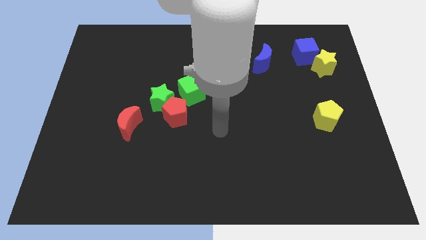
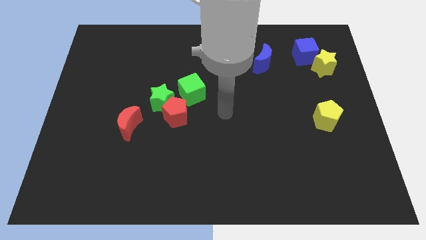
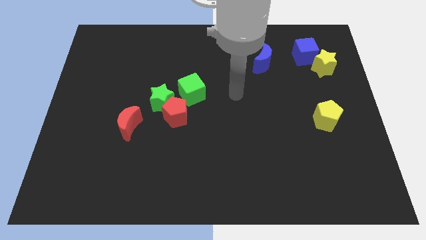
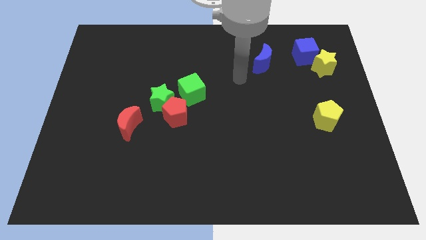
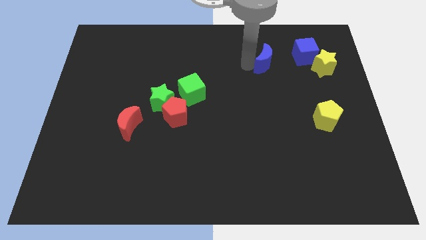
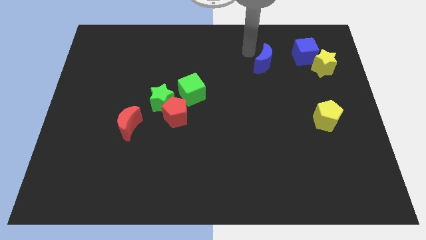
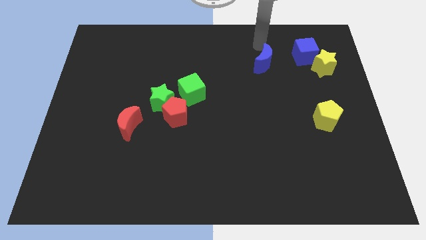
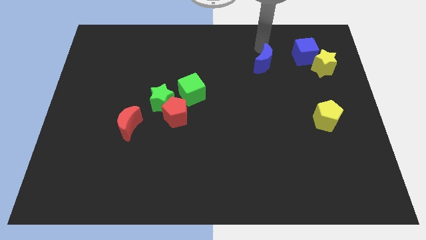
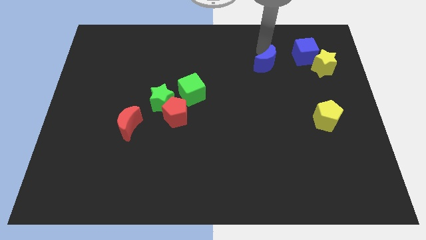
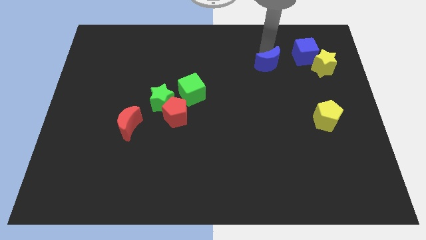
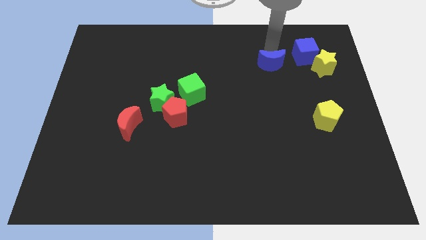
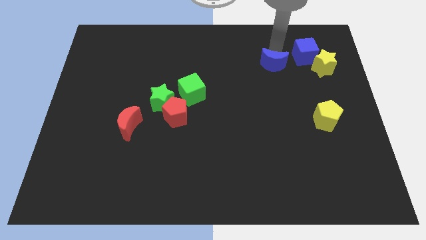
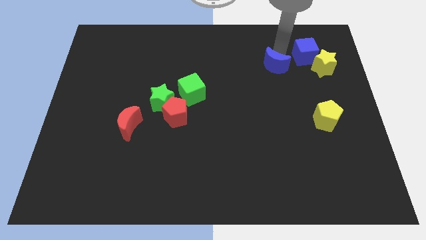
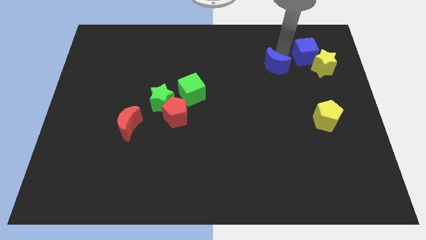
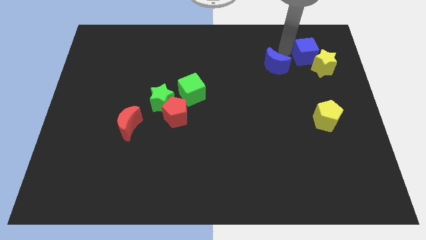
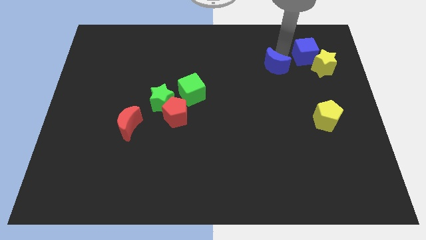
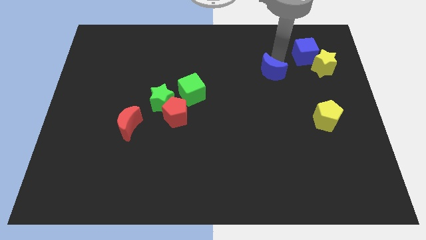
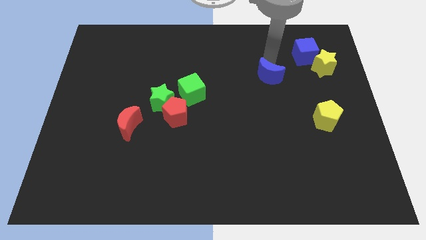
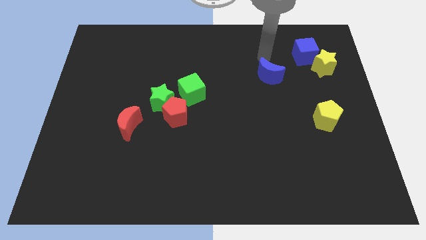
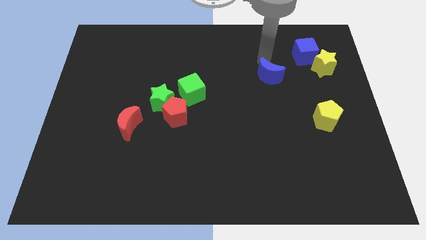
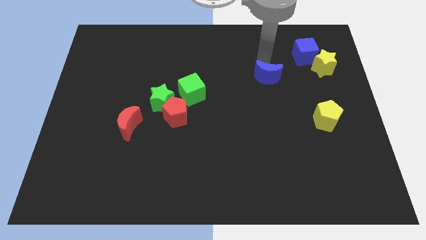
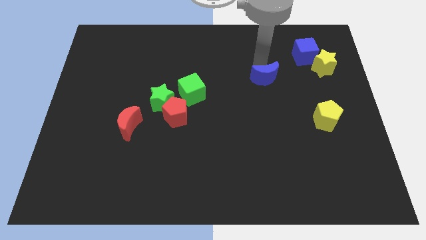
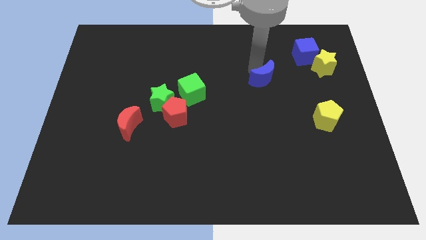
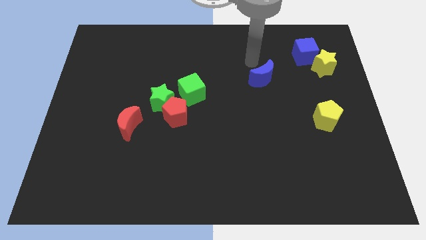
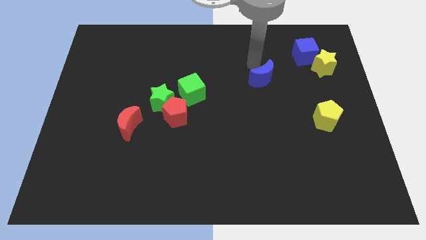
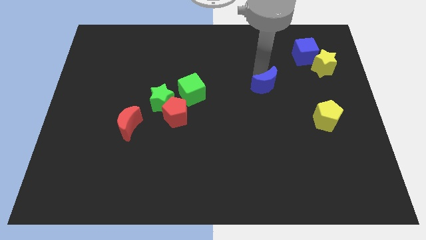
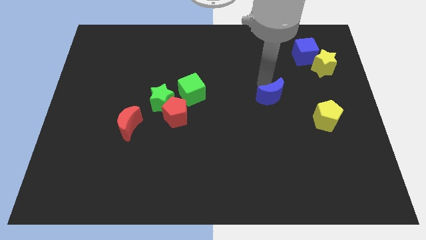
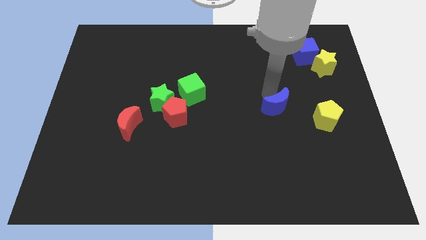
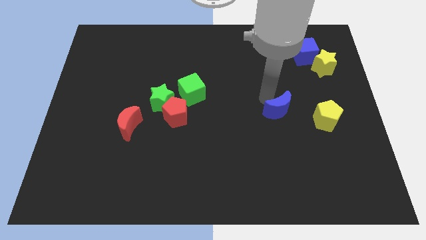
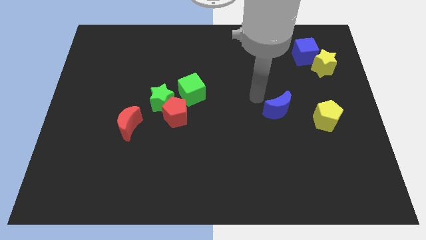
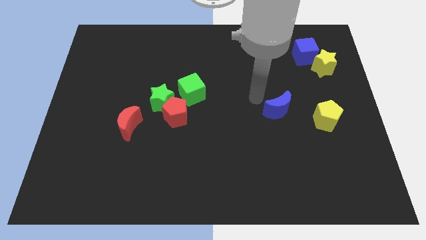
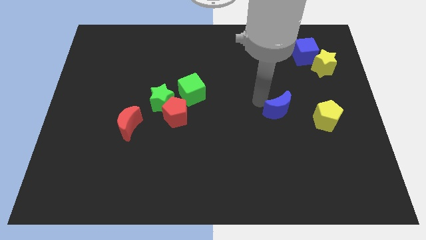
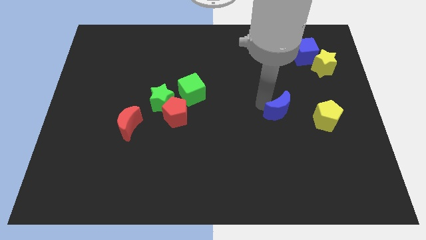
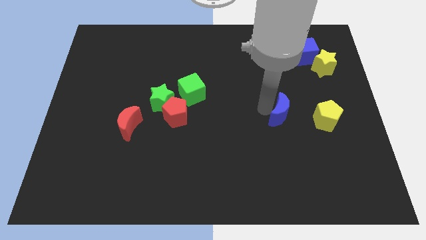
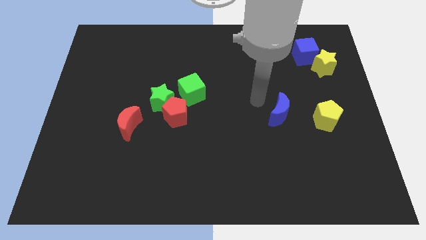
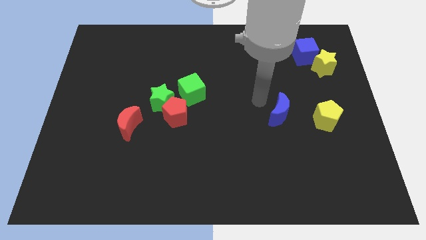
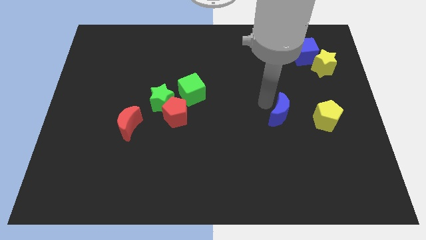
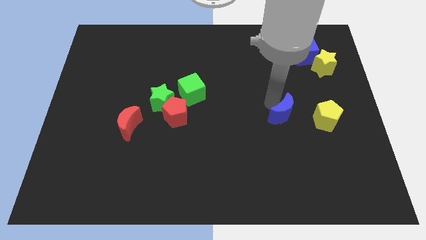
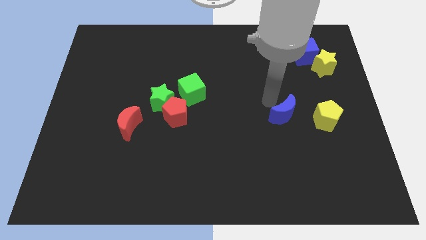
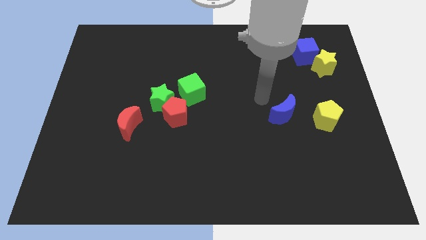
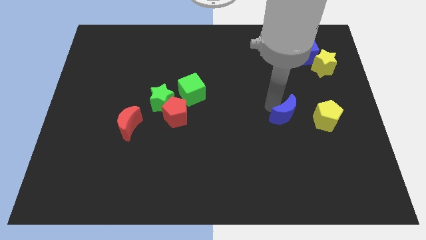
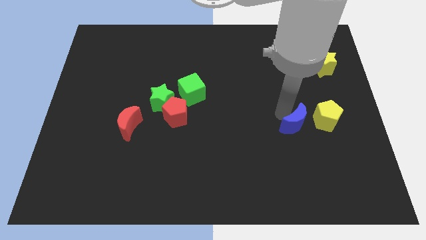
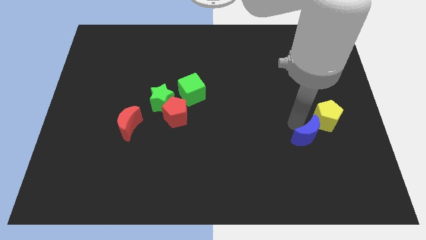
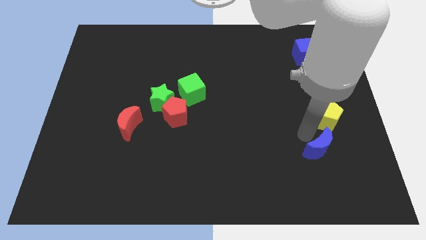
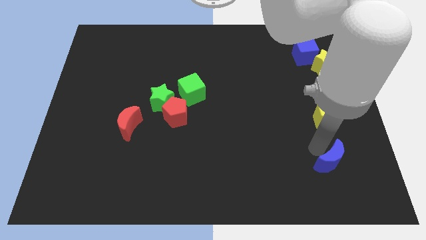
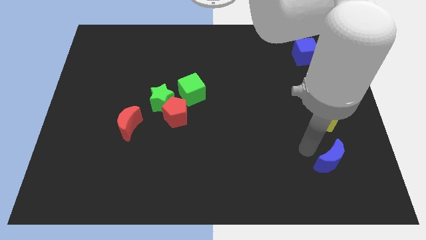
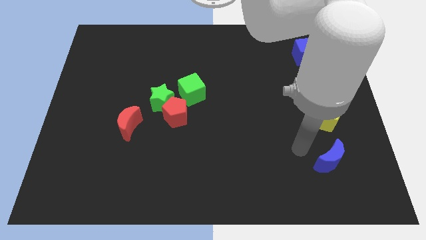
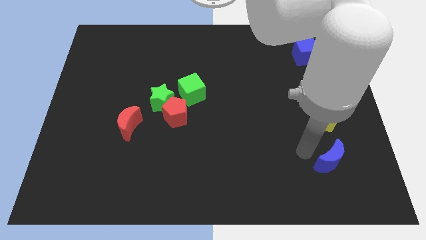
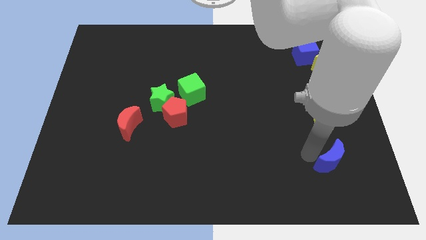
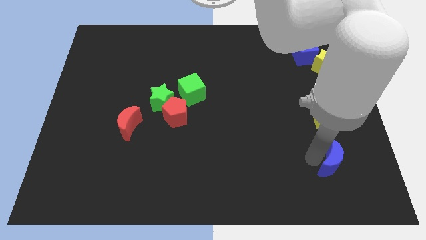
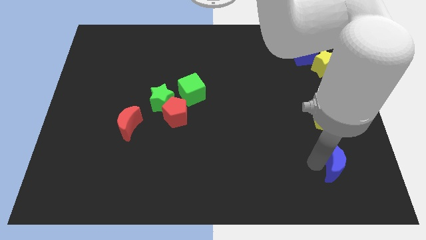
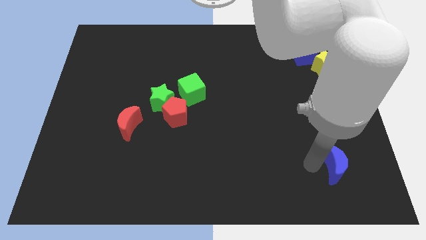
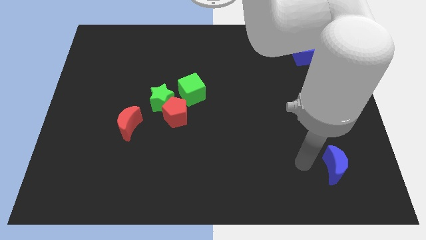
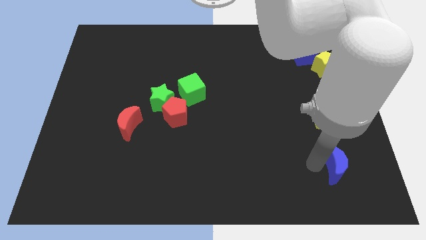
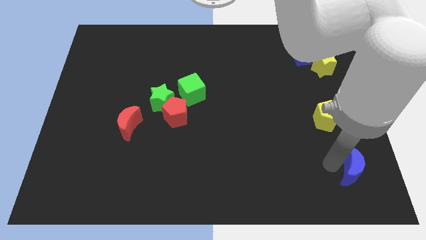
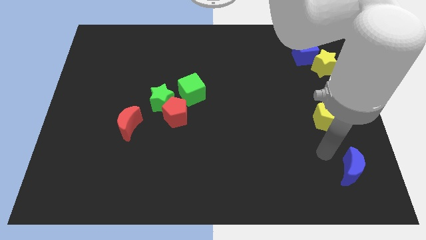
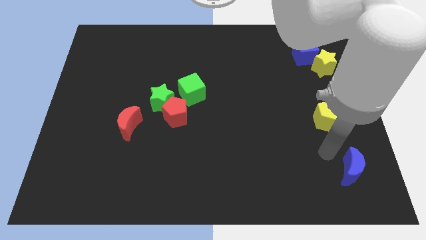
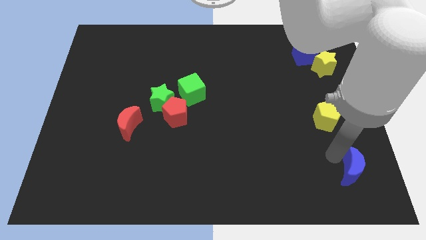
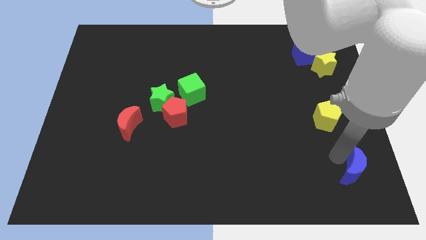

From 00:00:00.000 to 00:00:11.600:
move the blue moon to the bottom right corner
